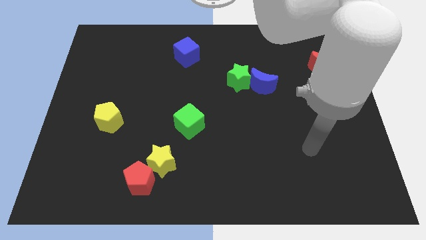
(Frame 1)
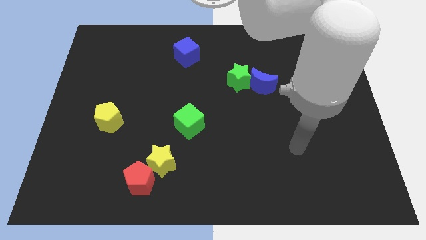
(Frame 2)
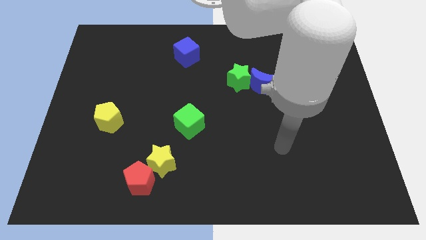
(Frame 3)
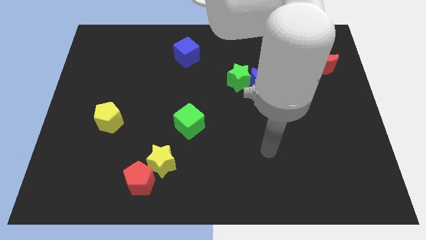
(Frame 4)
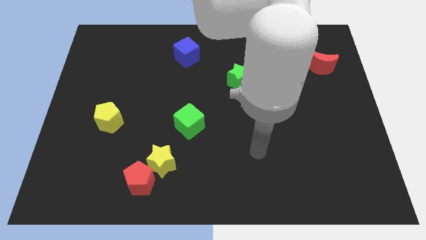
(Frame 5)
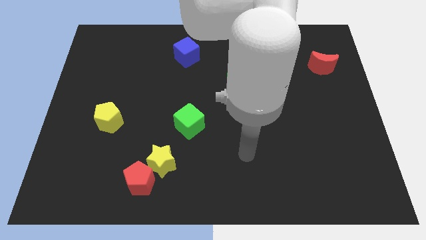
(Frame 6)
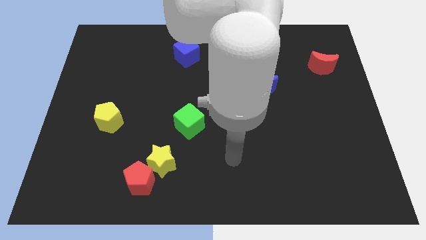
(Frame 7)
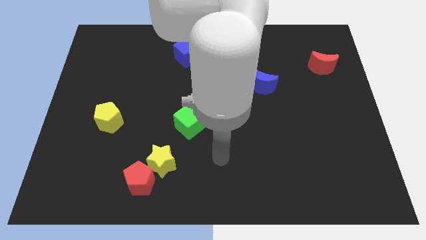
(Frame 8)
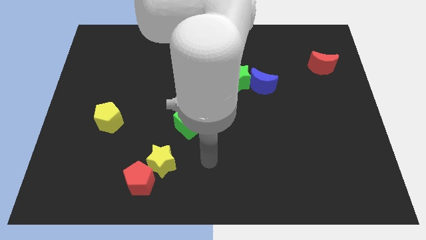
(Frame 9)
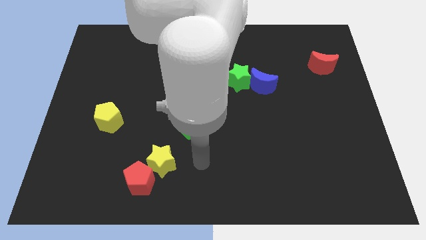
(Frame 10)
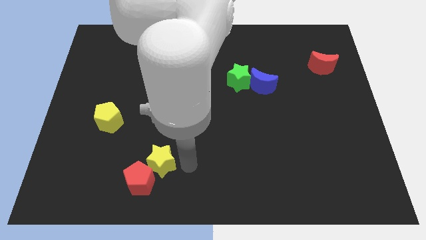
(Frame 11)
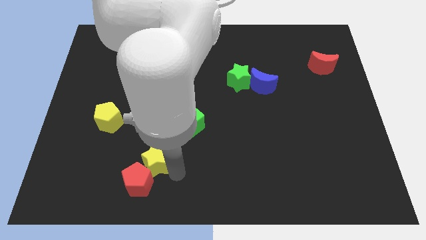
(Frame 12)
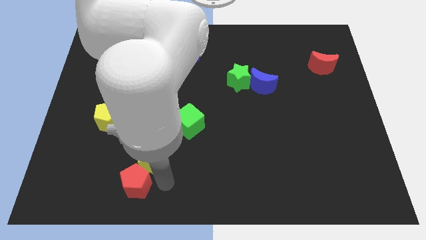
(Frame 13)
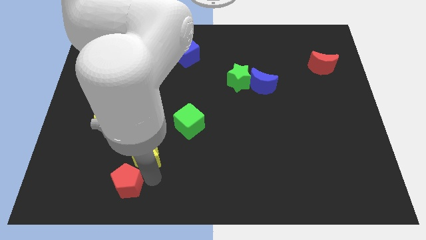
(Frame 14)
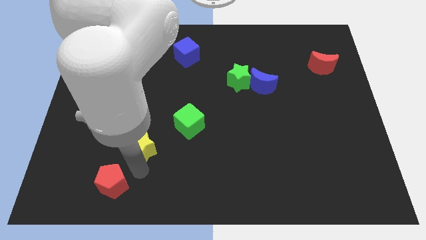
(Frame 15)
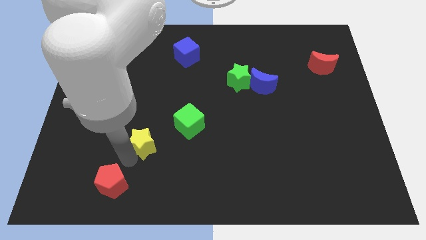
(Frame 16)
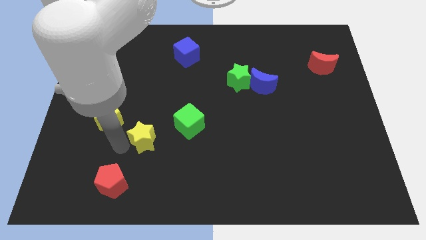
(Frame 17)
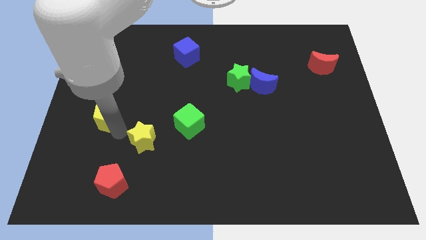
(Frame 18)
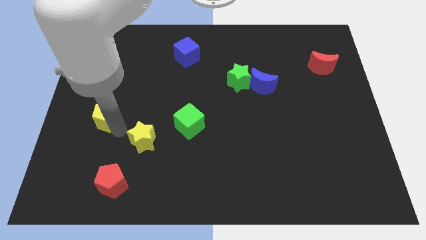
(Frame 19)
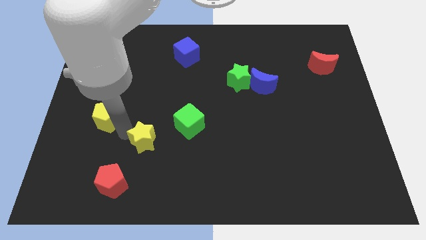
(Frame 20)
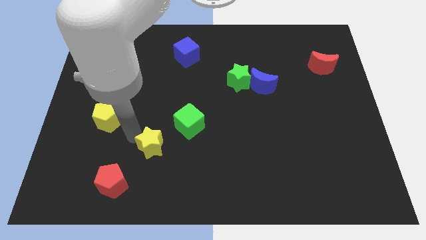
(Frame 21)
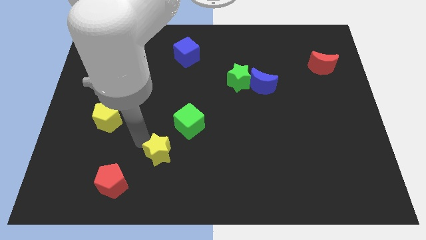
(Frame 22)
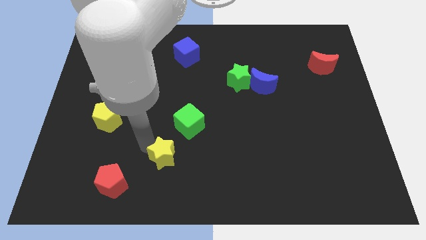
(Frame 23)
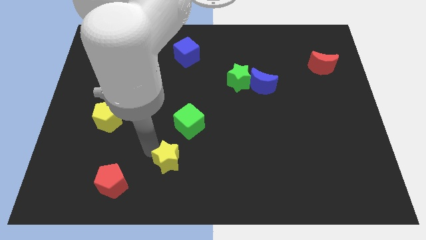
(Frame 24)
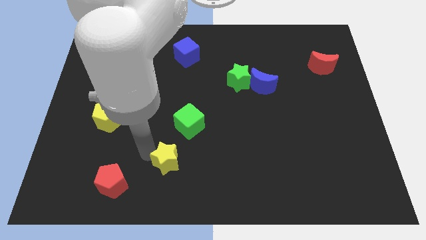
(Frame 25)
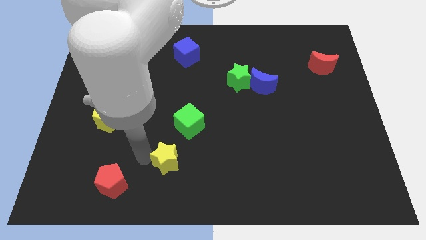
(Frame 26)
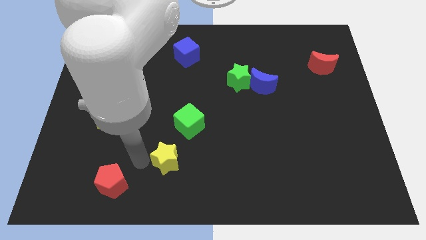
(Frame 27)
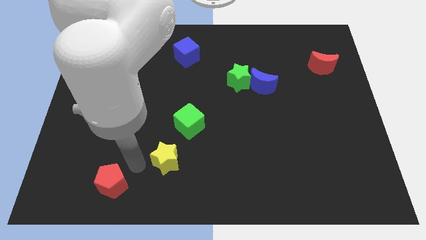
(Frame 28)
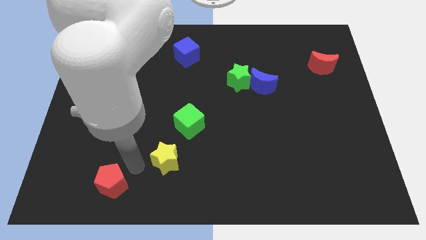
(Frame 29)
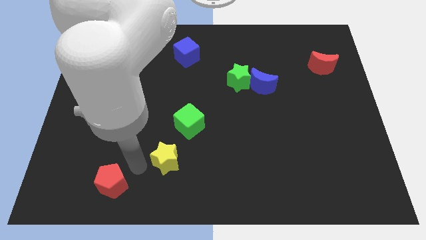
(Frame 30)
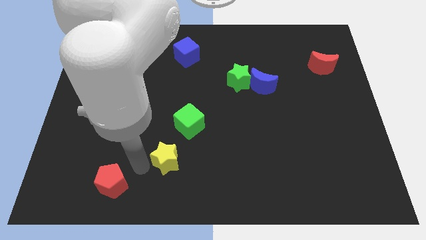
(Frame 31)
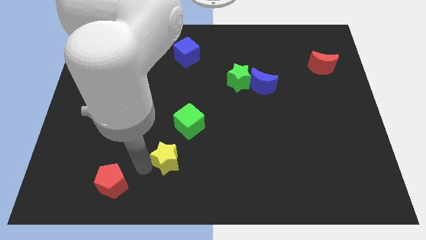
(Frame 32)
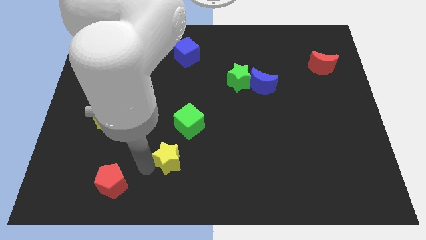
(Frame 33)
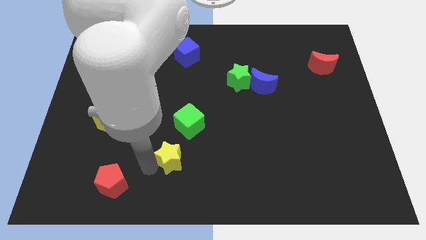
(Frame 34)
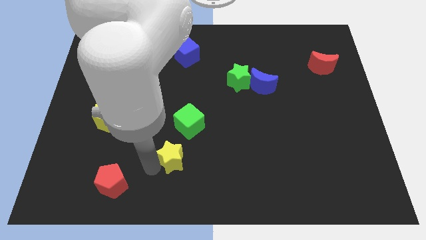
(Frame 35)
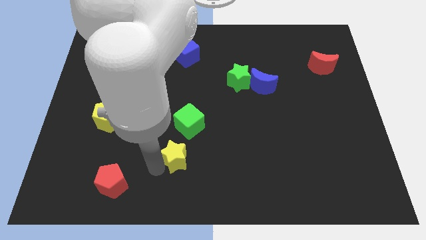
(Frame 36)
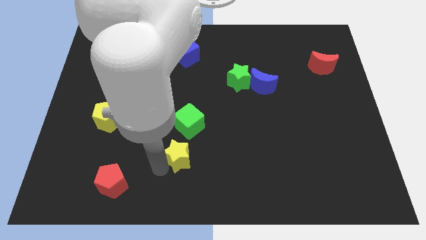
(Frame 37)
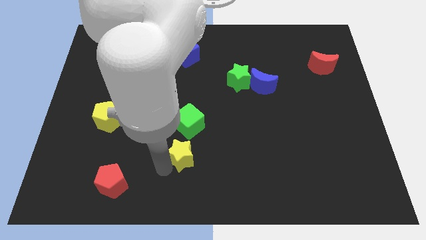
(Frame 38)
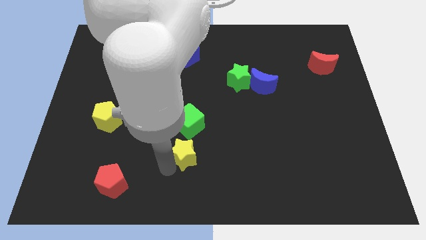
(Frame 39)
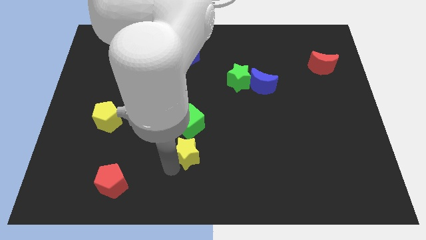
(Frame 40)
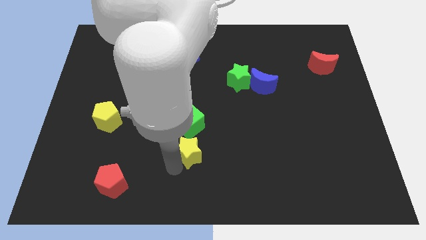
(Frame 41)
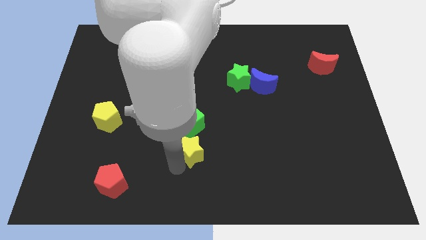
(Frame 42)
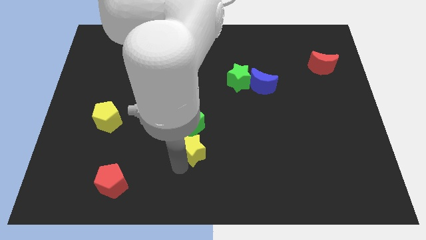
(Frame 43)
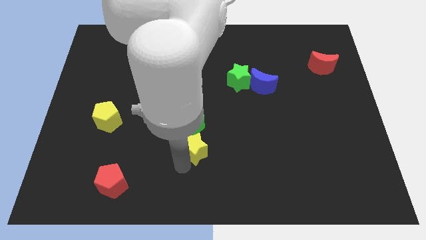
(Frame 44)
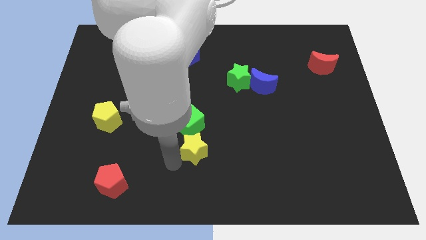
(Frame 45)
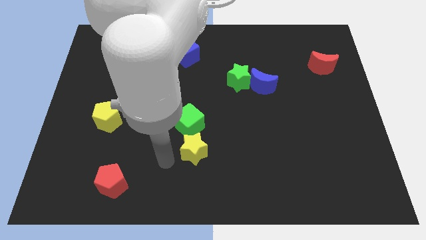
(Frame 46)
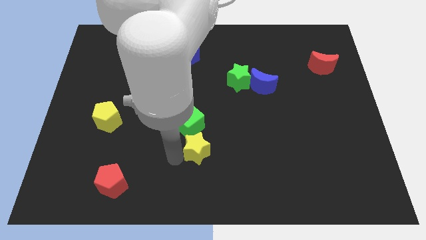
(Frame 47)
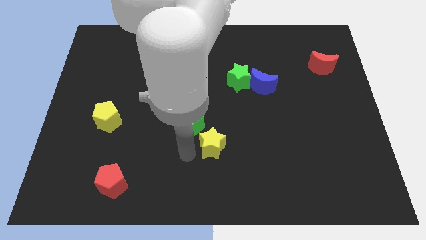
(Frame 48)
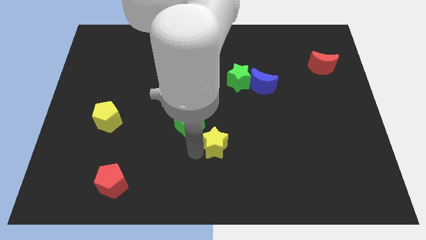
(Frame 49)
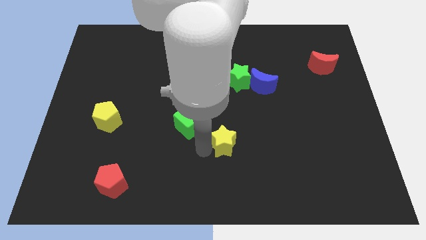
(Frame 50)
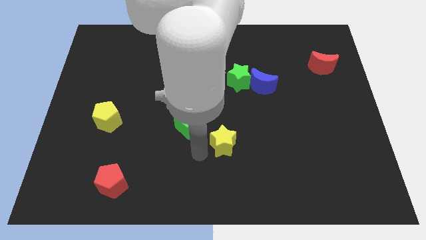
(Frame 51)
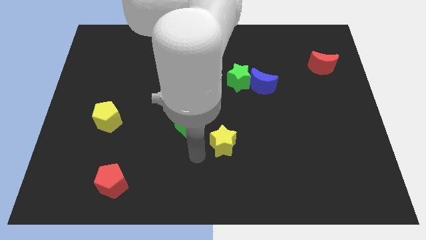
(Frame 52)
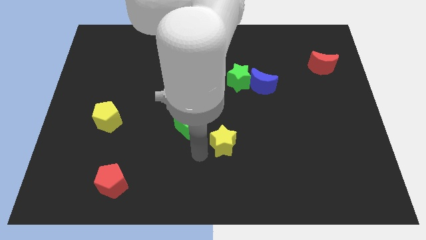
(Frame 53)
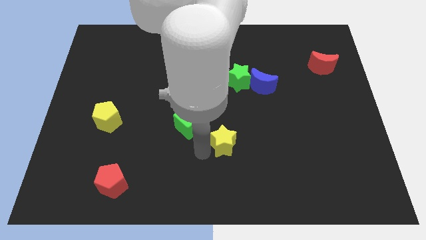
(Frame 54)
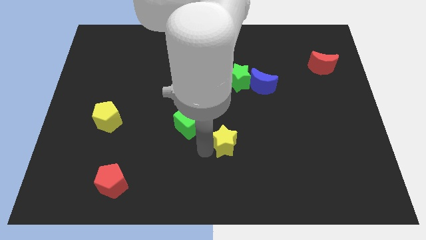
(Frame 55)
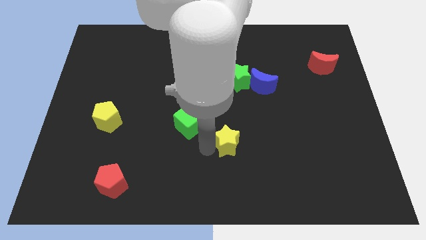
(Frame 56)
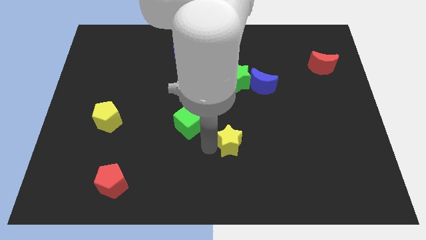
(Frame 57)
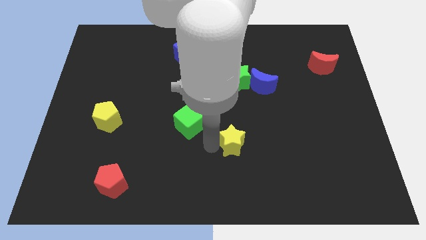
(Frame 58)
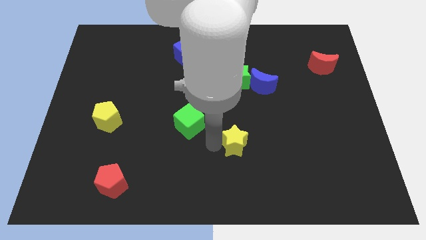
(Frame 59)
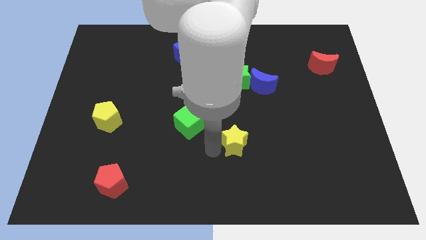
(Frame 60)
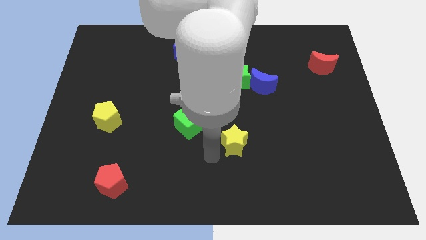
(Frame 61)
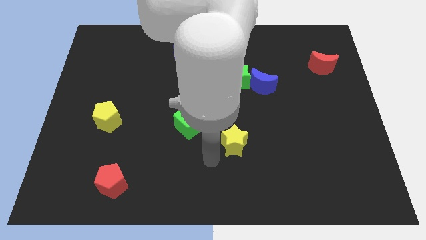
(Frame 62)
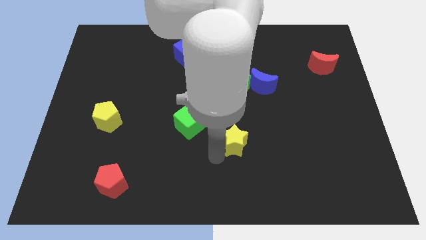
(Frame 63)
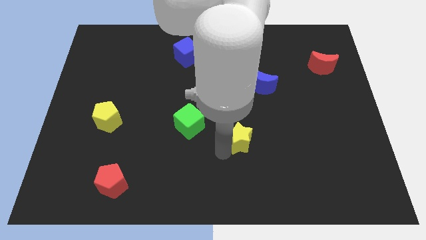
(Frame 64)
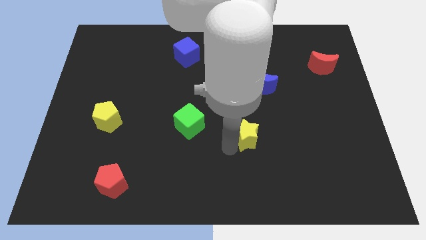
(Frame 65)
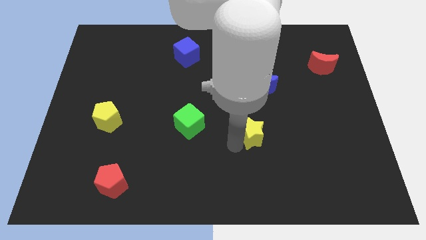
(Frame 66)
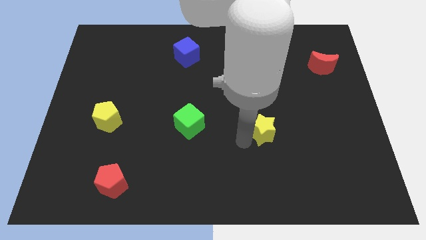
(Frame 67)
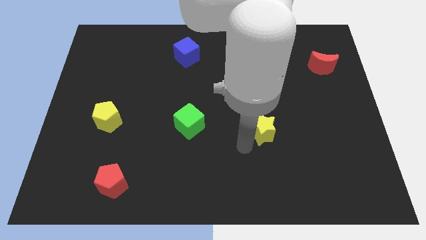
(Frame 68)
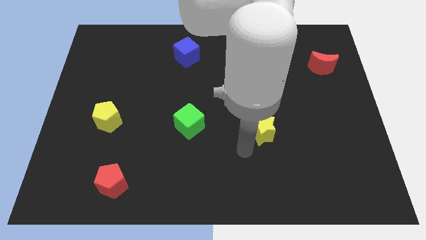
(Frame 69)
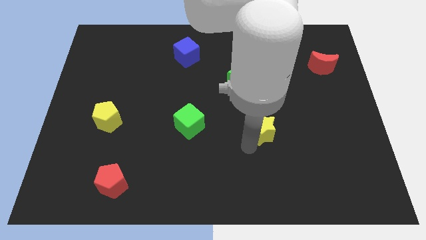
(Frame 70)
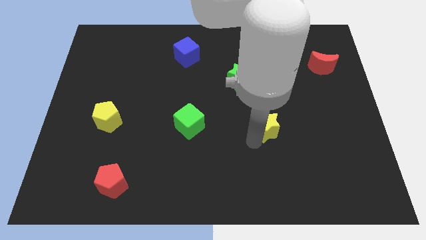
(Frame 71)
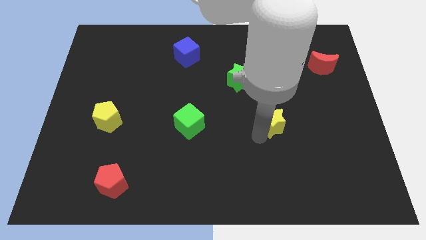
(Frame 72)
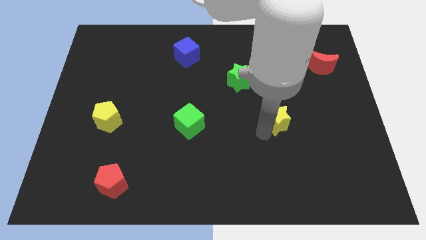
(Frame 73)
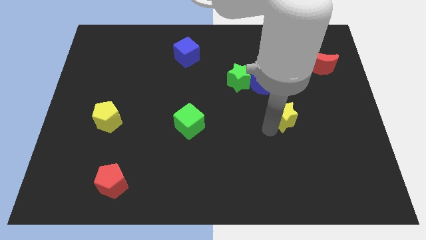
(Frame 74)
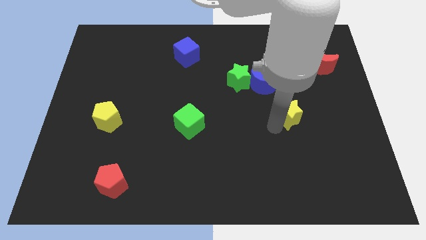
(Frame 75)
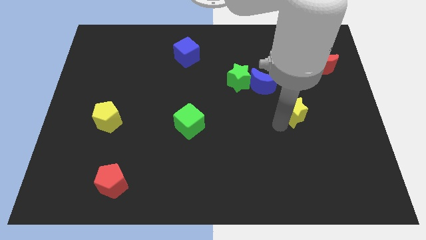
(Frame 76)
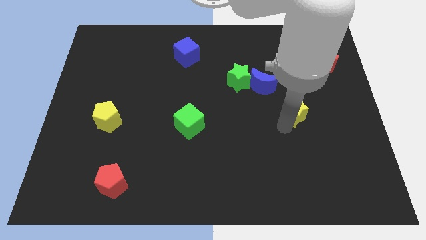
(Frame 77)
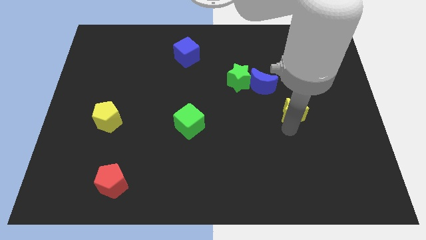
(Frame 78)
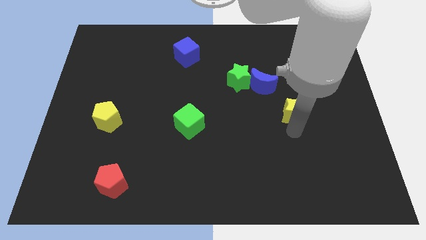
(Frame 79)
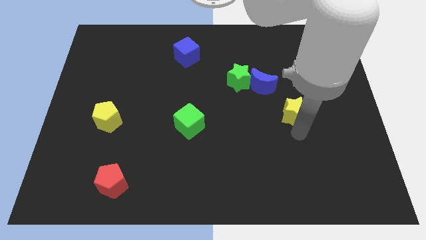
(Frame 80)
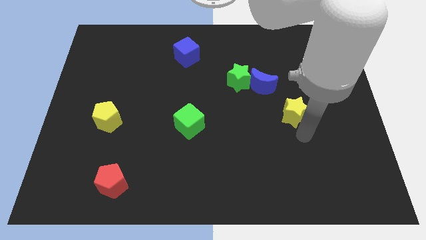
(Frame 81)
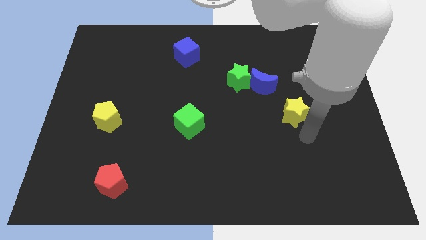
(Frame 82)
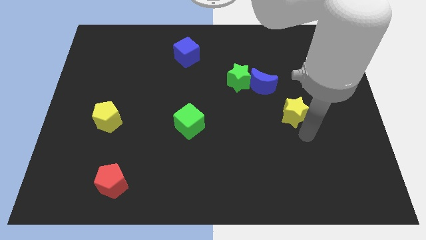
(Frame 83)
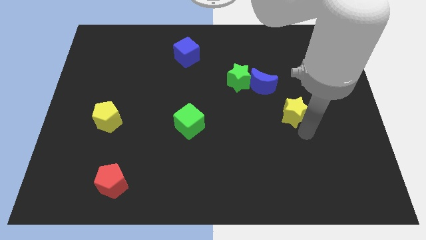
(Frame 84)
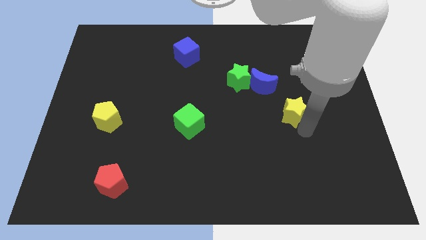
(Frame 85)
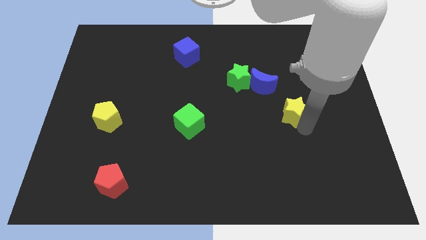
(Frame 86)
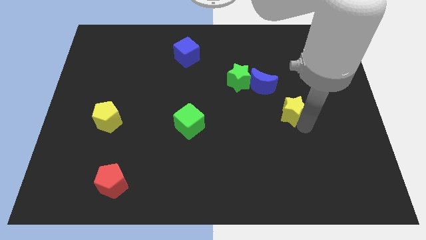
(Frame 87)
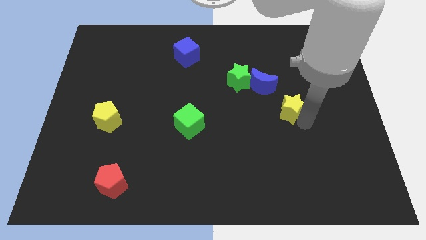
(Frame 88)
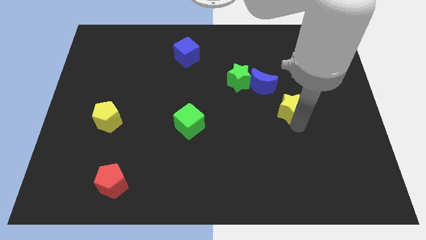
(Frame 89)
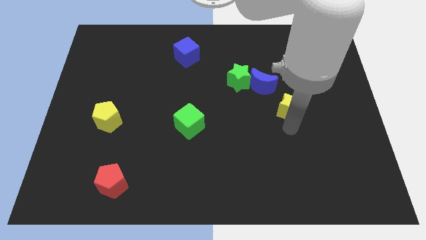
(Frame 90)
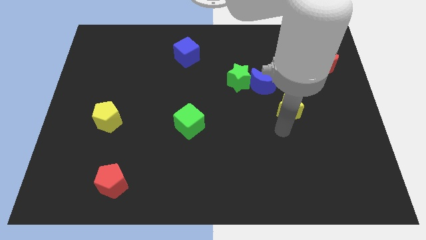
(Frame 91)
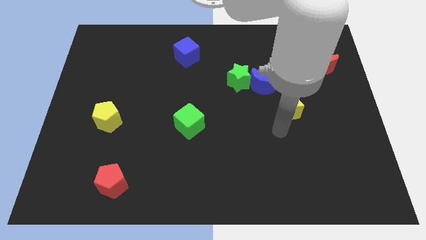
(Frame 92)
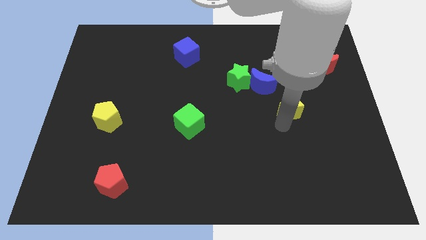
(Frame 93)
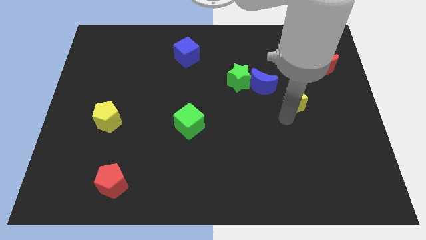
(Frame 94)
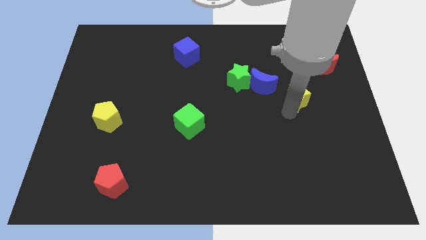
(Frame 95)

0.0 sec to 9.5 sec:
push the yellow star to the right of the blue moon
